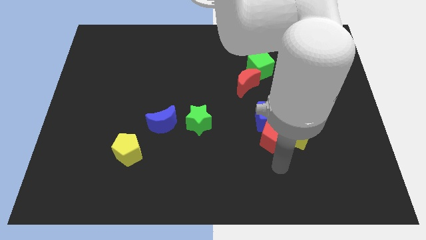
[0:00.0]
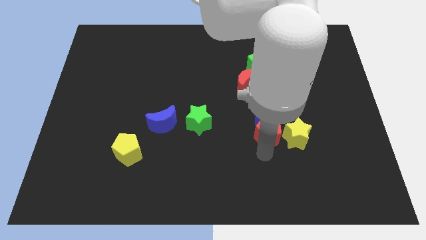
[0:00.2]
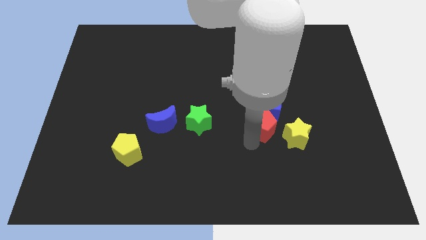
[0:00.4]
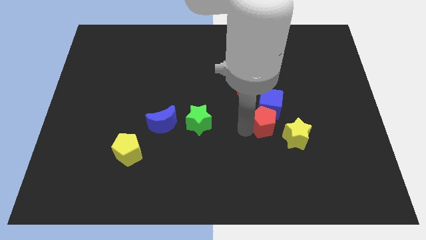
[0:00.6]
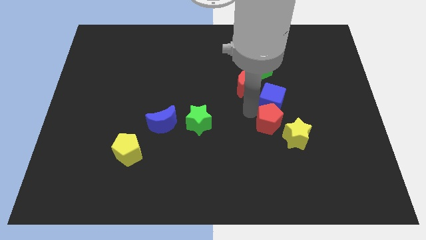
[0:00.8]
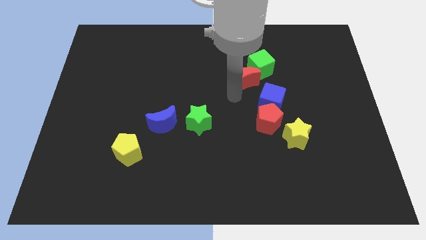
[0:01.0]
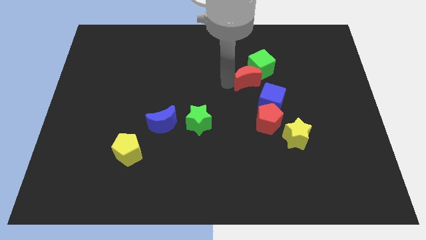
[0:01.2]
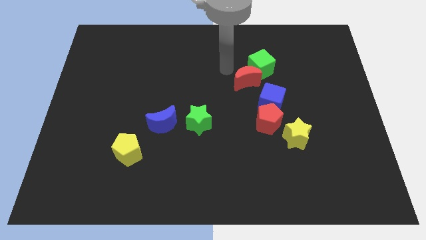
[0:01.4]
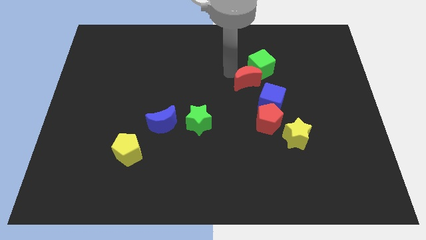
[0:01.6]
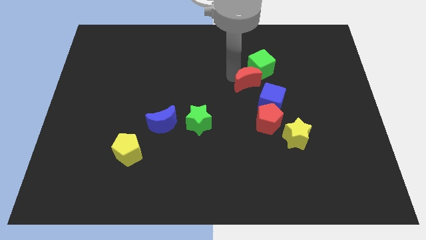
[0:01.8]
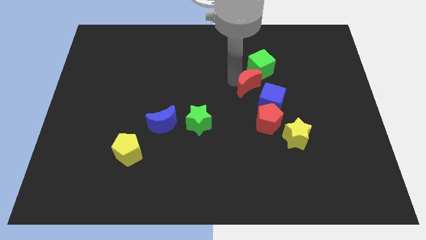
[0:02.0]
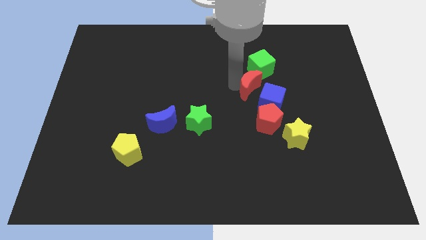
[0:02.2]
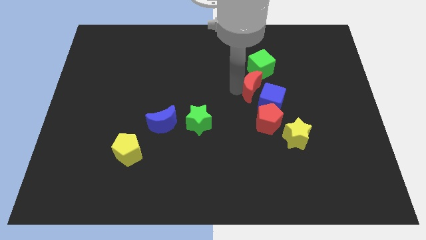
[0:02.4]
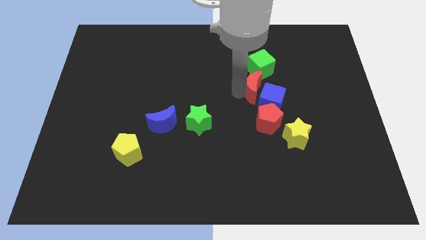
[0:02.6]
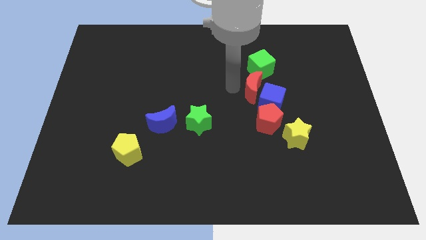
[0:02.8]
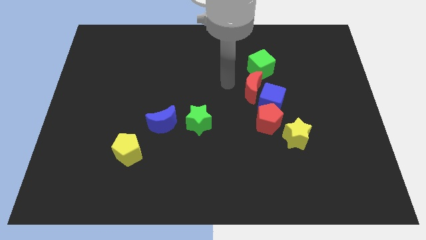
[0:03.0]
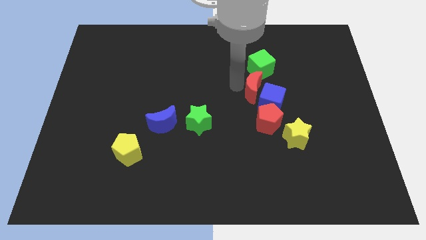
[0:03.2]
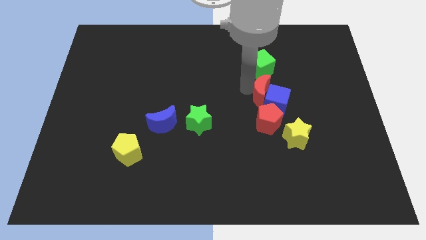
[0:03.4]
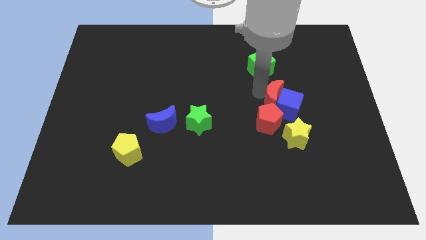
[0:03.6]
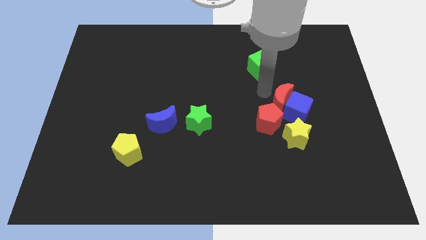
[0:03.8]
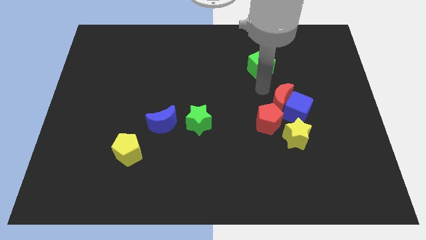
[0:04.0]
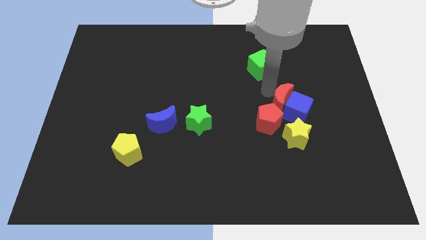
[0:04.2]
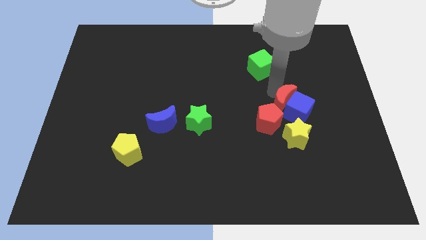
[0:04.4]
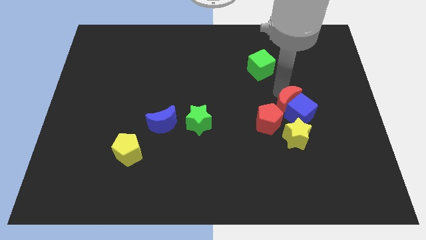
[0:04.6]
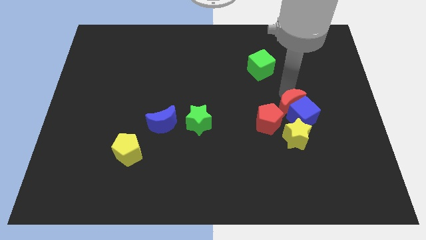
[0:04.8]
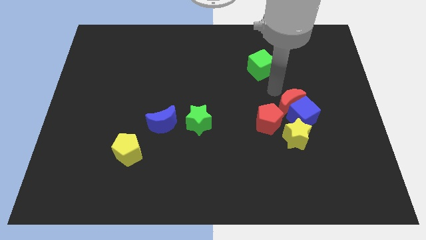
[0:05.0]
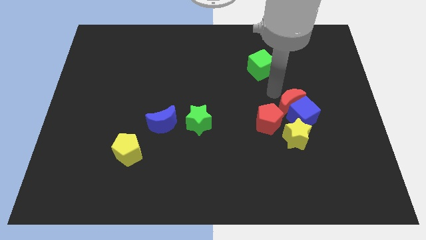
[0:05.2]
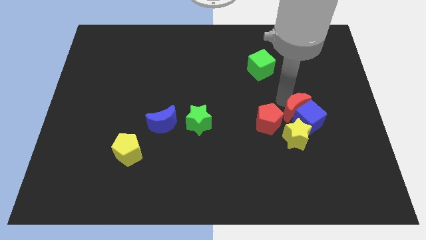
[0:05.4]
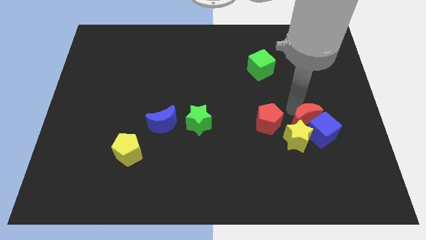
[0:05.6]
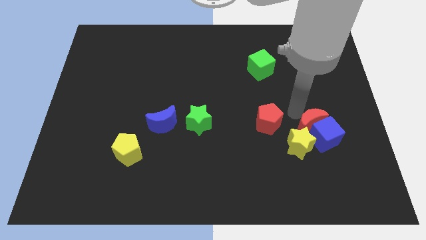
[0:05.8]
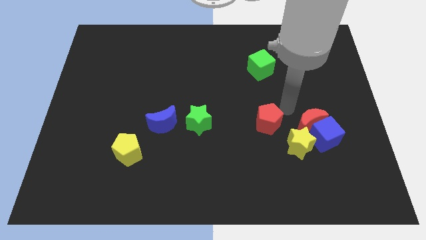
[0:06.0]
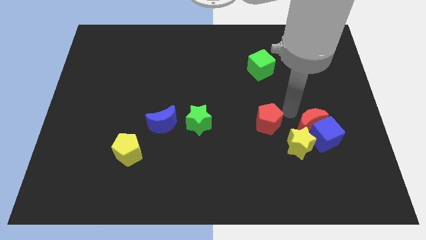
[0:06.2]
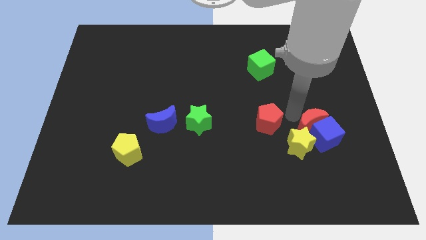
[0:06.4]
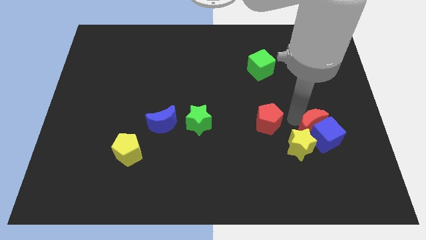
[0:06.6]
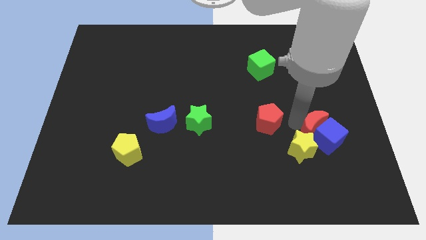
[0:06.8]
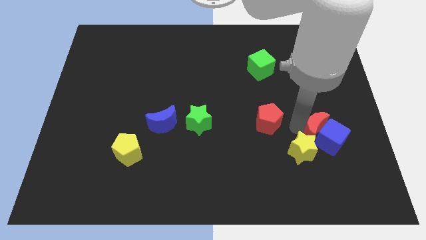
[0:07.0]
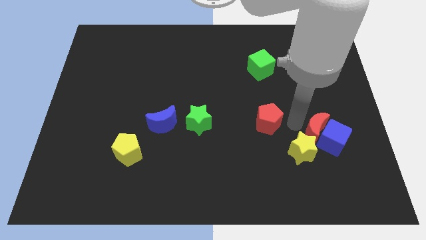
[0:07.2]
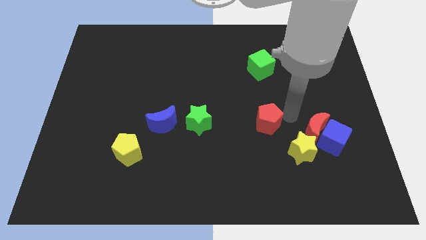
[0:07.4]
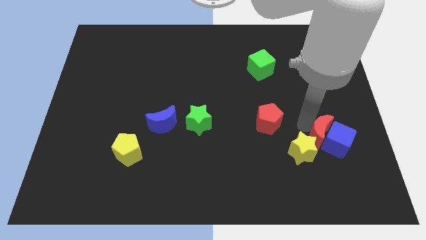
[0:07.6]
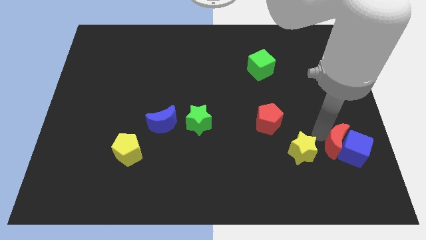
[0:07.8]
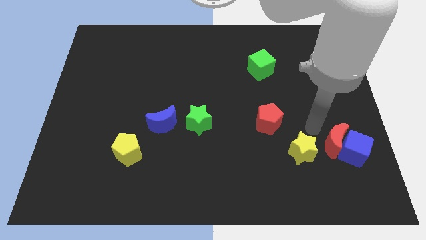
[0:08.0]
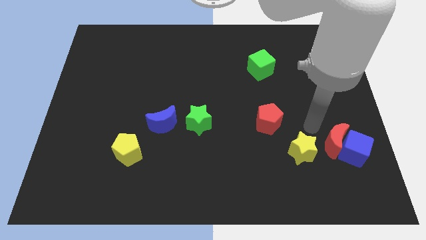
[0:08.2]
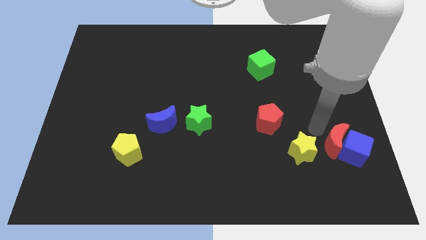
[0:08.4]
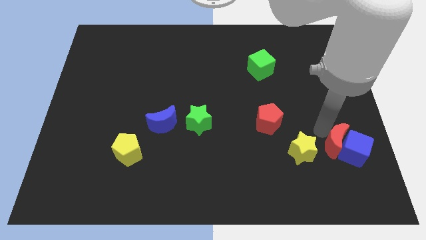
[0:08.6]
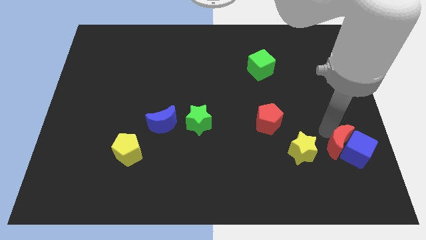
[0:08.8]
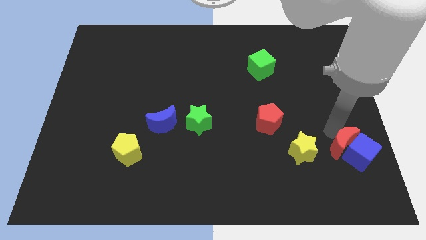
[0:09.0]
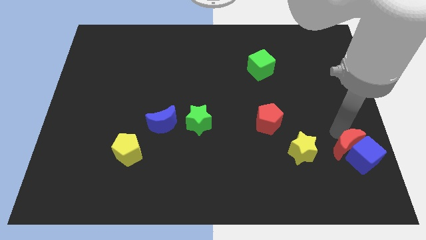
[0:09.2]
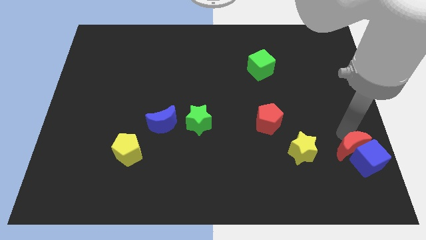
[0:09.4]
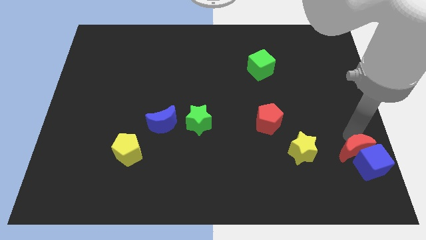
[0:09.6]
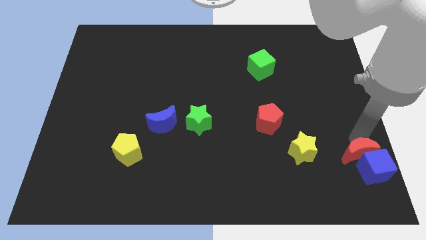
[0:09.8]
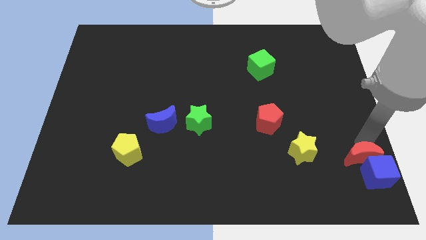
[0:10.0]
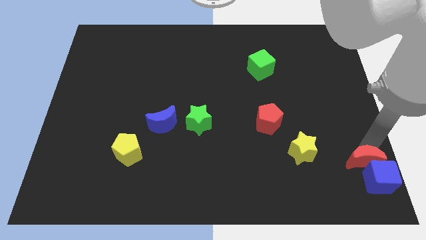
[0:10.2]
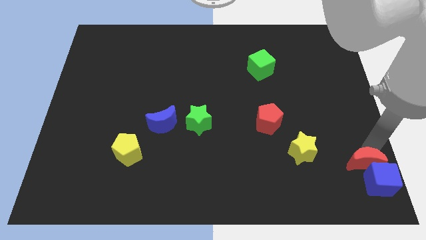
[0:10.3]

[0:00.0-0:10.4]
slide the red moon to the bottom right of the board

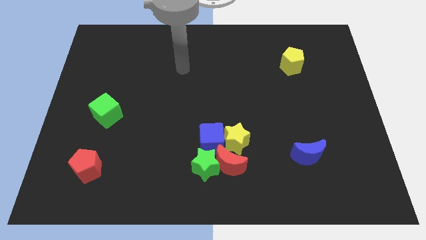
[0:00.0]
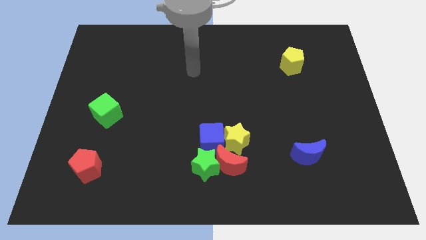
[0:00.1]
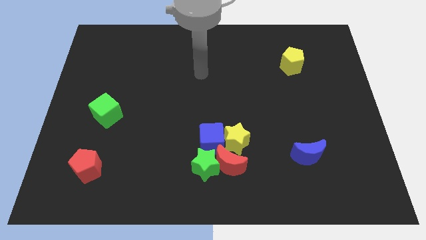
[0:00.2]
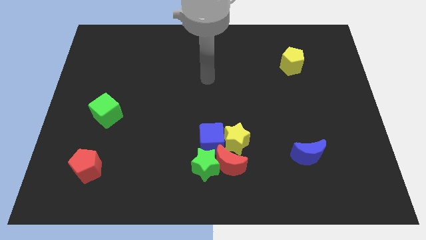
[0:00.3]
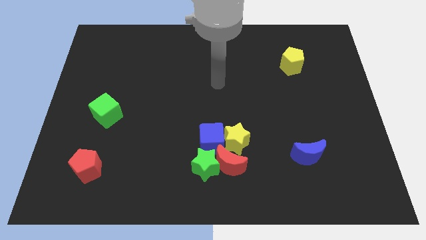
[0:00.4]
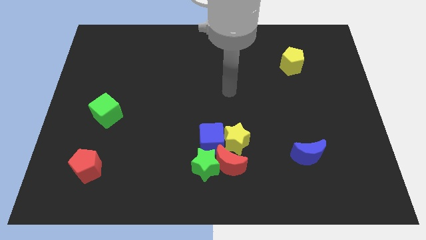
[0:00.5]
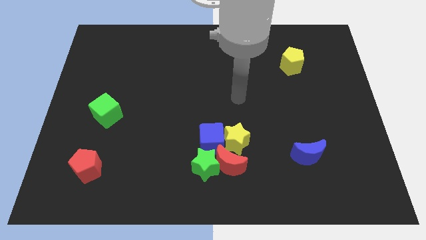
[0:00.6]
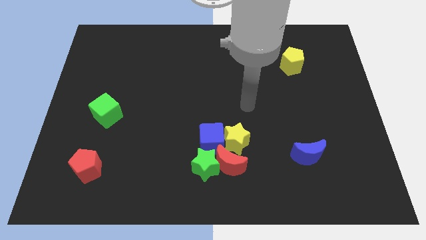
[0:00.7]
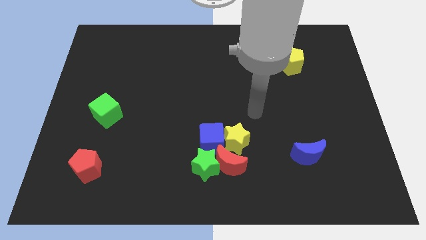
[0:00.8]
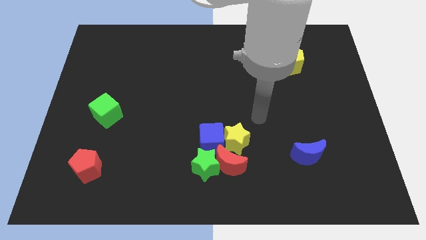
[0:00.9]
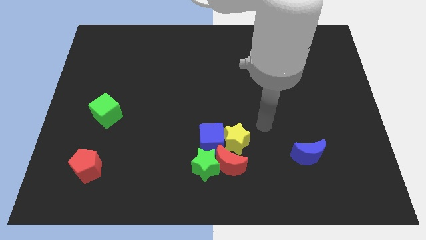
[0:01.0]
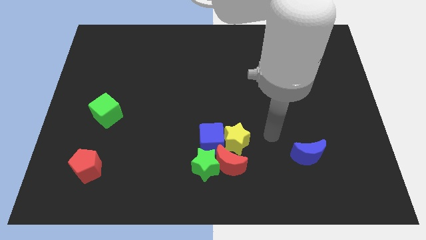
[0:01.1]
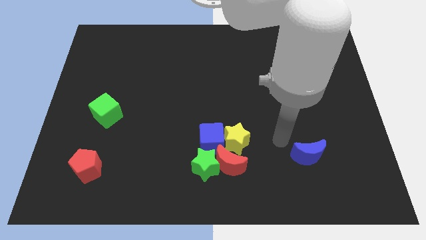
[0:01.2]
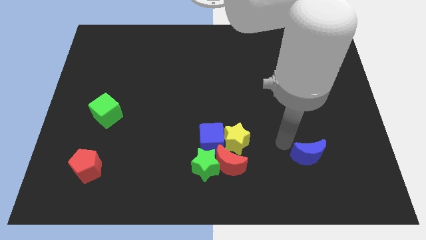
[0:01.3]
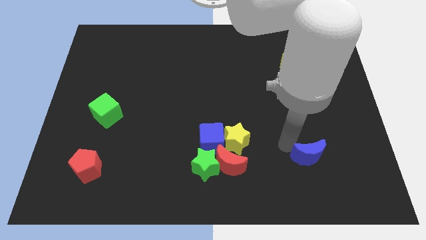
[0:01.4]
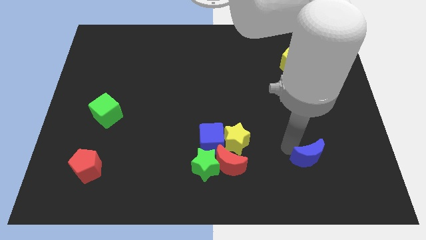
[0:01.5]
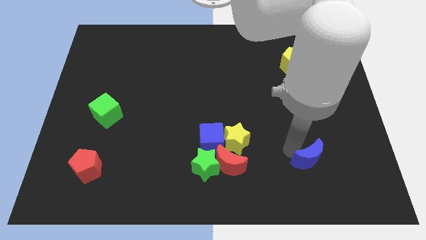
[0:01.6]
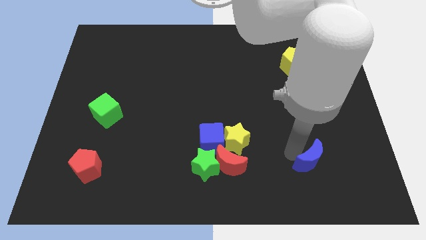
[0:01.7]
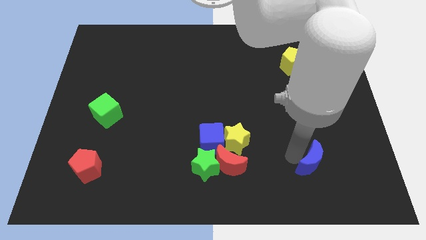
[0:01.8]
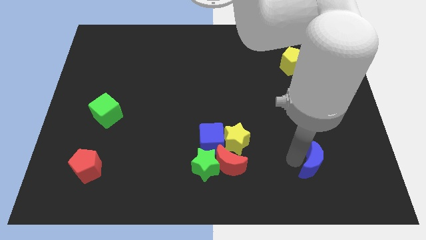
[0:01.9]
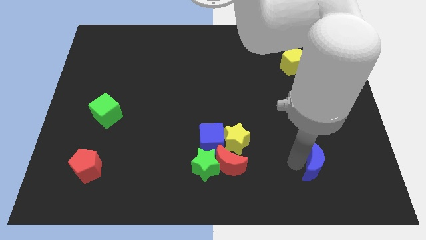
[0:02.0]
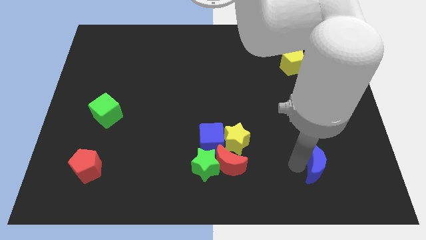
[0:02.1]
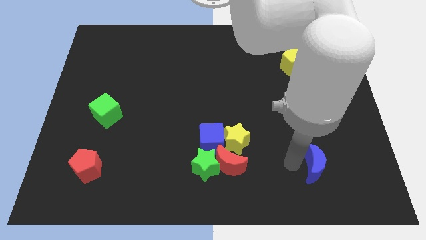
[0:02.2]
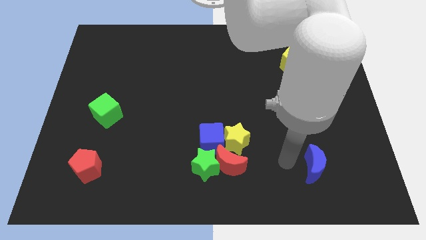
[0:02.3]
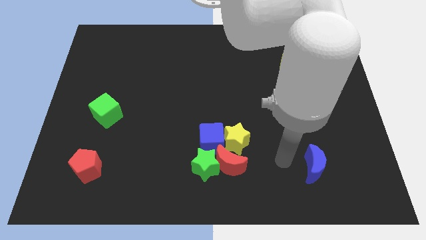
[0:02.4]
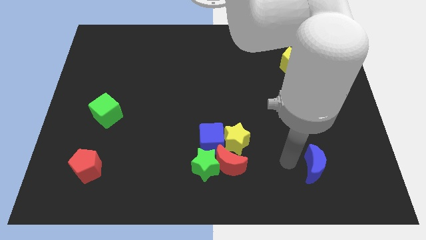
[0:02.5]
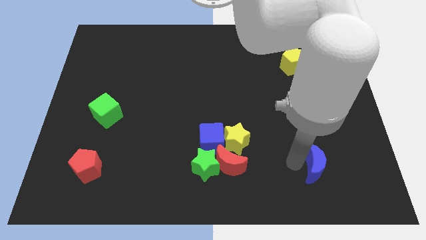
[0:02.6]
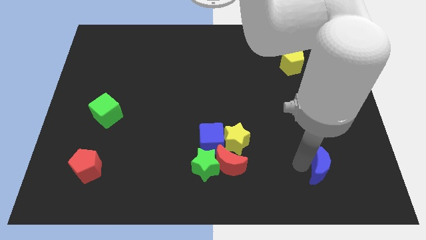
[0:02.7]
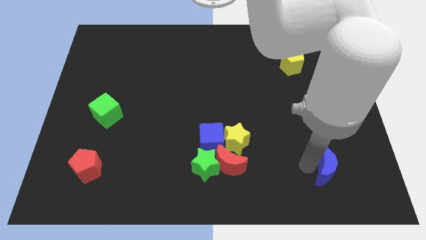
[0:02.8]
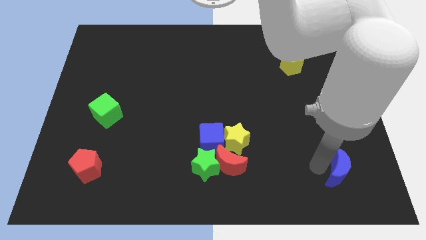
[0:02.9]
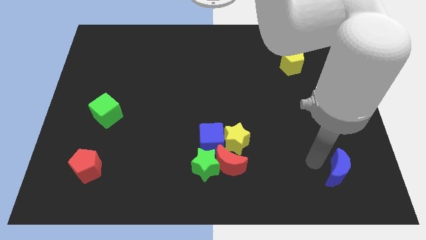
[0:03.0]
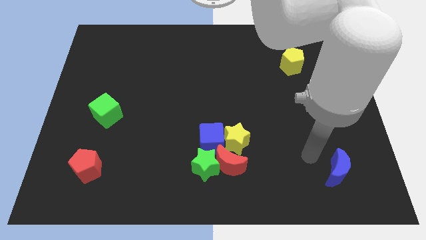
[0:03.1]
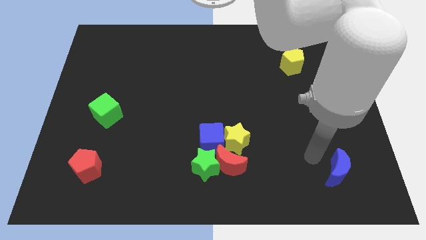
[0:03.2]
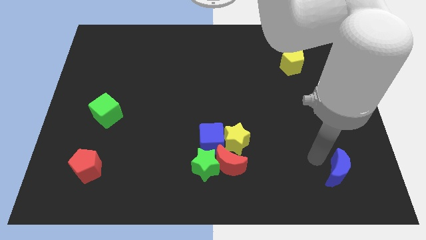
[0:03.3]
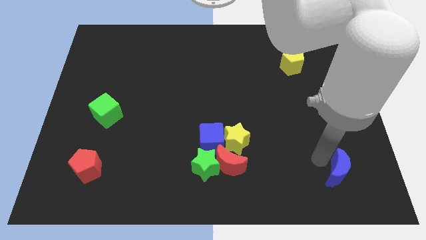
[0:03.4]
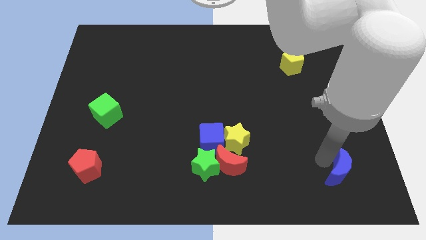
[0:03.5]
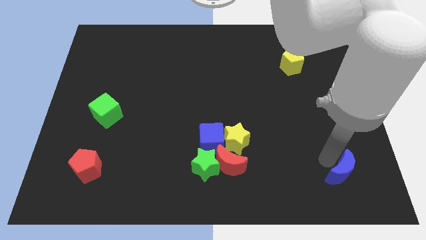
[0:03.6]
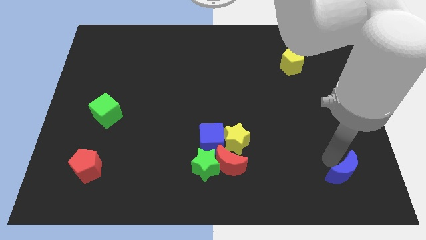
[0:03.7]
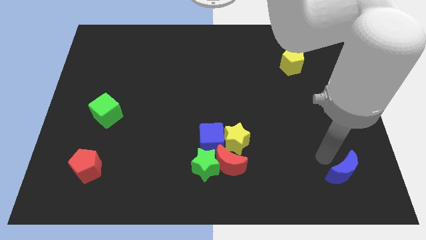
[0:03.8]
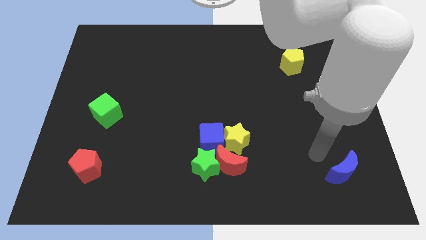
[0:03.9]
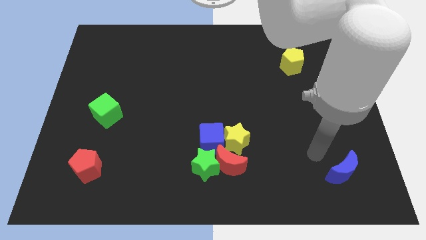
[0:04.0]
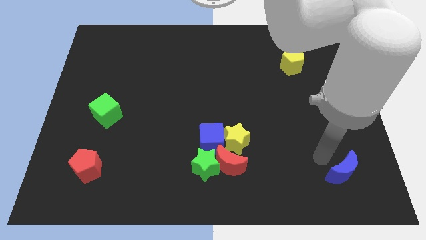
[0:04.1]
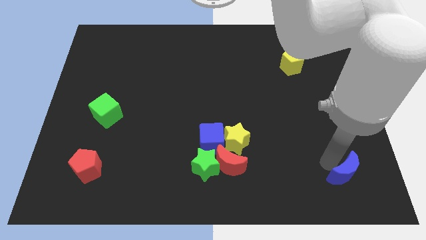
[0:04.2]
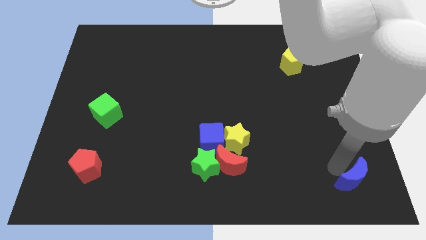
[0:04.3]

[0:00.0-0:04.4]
put the blue moon to the bottom right corner
